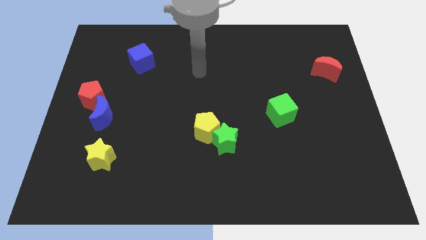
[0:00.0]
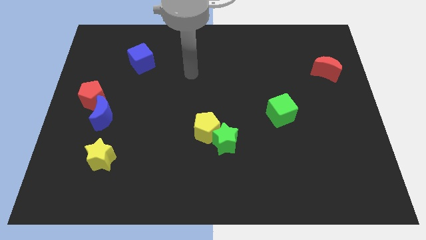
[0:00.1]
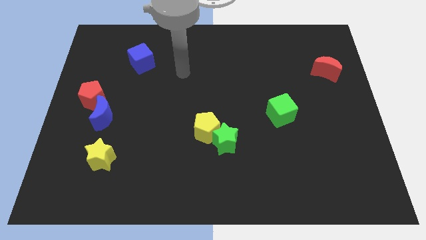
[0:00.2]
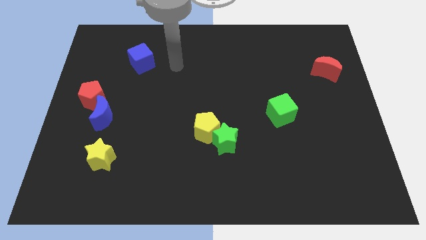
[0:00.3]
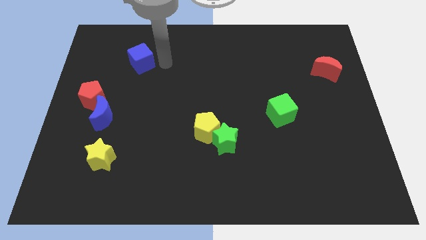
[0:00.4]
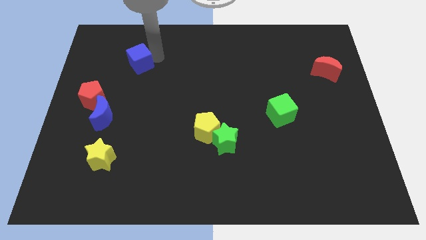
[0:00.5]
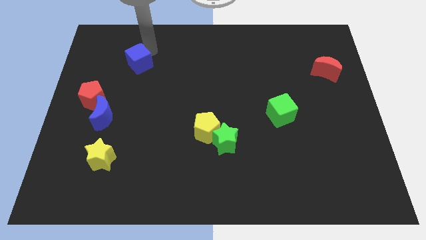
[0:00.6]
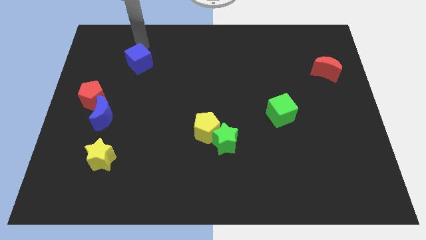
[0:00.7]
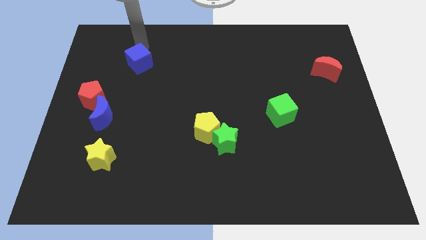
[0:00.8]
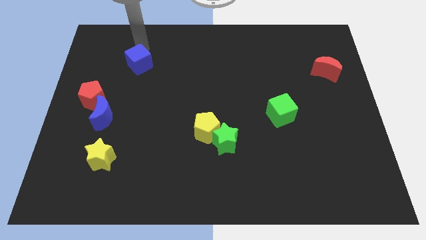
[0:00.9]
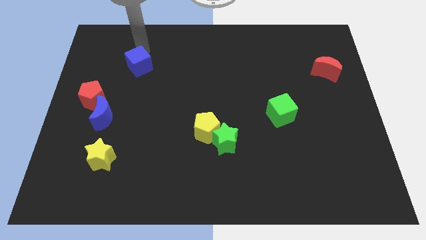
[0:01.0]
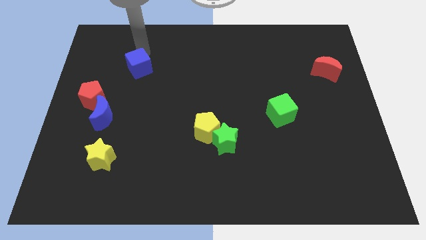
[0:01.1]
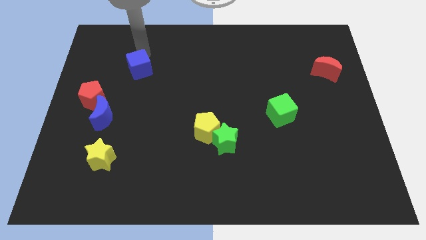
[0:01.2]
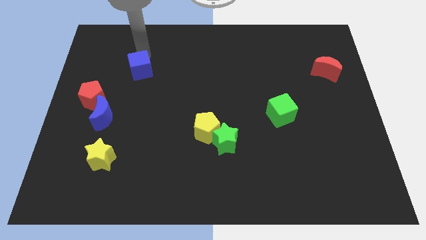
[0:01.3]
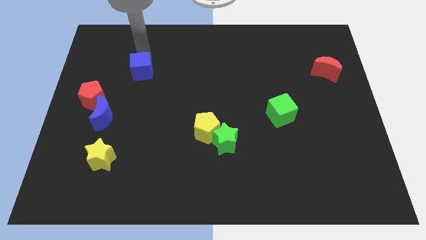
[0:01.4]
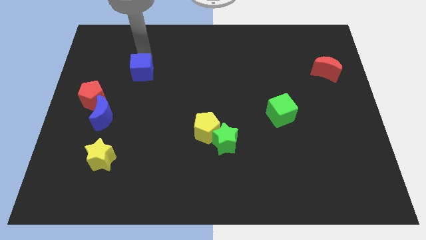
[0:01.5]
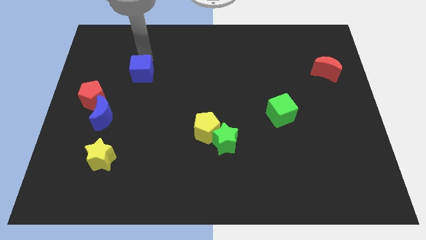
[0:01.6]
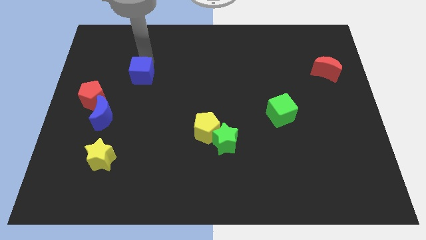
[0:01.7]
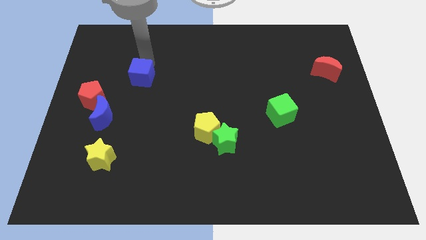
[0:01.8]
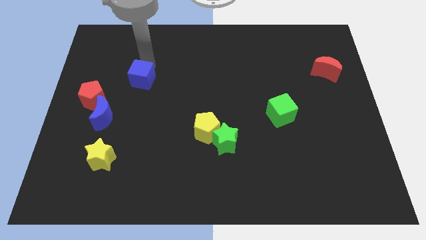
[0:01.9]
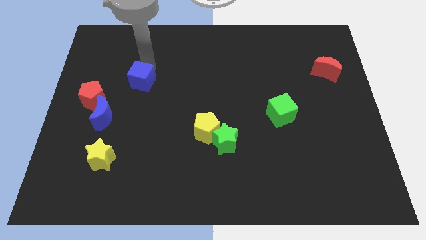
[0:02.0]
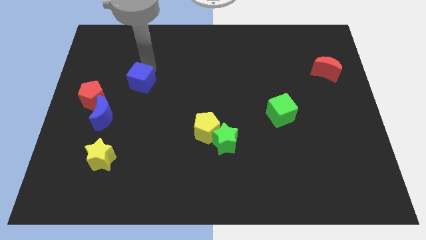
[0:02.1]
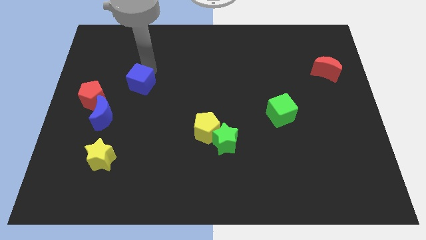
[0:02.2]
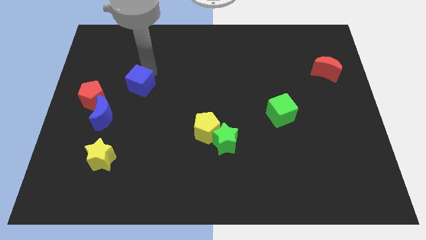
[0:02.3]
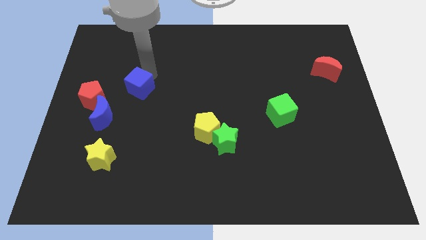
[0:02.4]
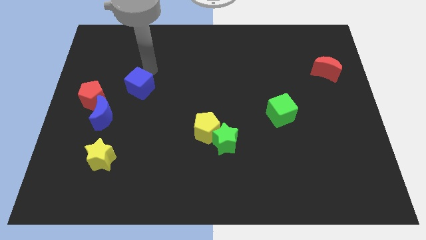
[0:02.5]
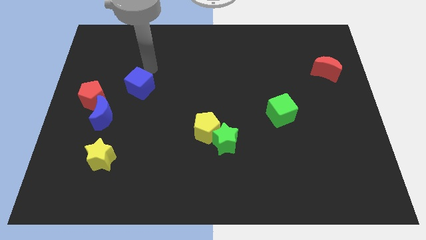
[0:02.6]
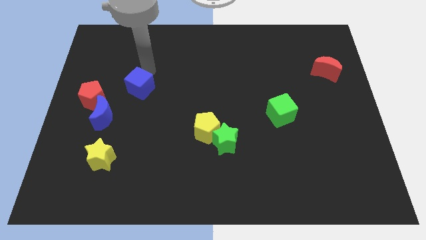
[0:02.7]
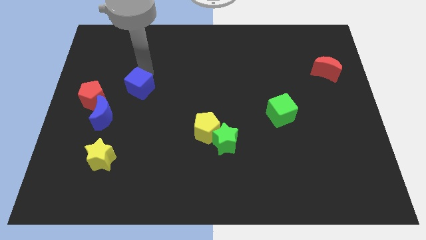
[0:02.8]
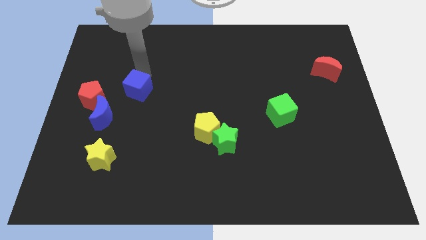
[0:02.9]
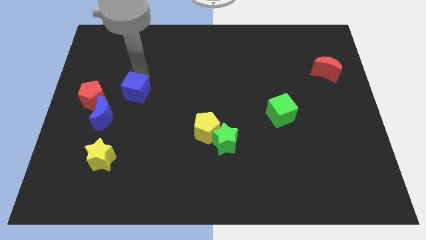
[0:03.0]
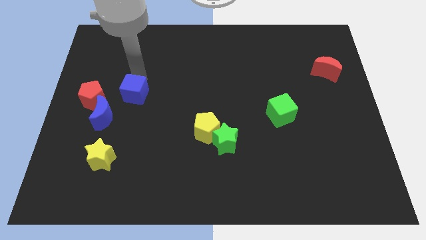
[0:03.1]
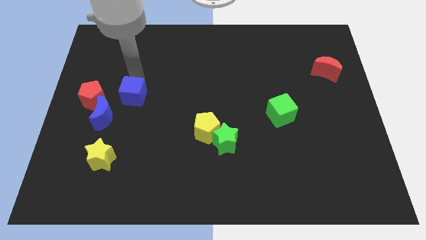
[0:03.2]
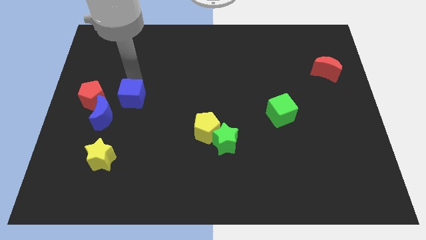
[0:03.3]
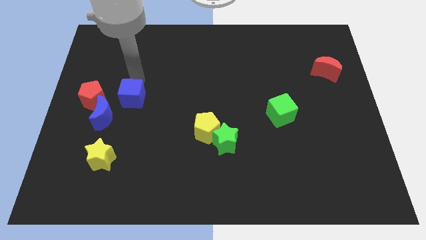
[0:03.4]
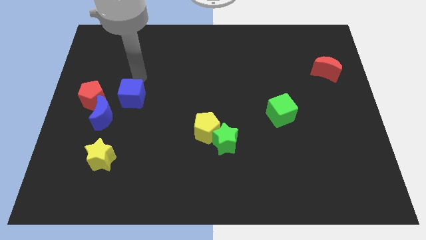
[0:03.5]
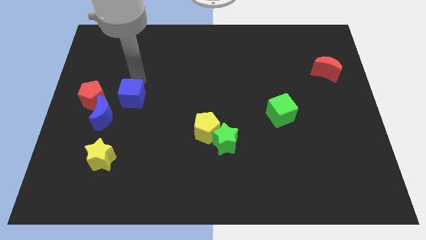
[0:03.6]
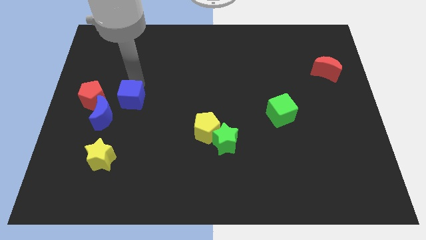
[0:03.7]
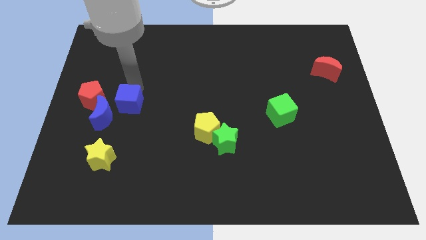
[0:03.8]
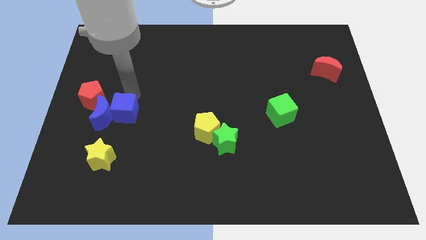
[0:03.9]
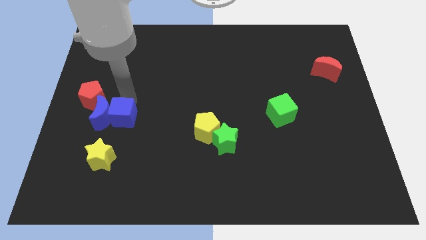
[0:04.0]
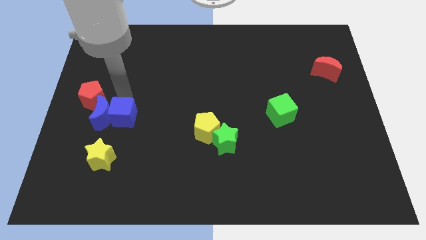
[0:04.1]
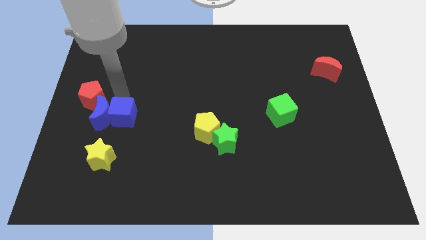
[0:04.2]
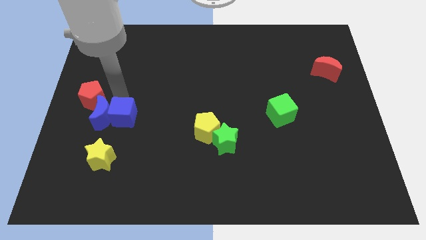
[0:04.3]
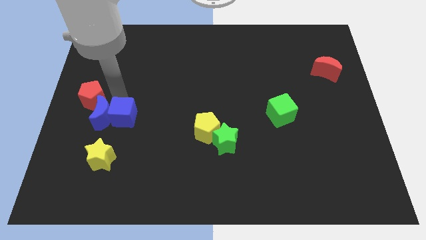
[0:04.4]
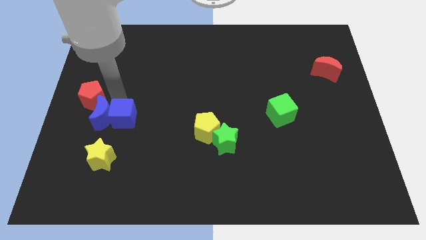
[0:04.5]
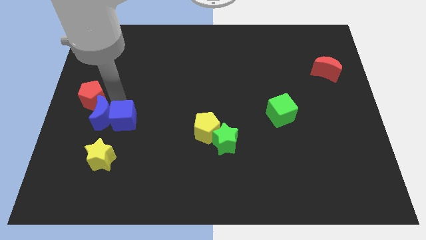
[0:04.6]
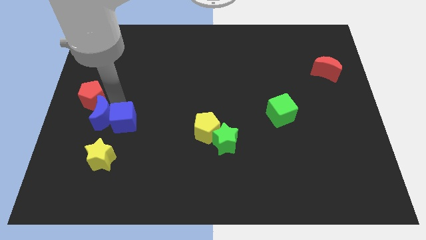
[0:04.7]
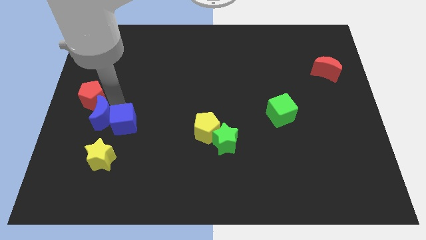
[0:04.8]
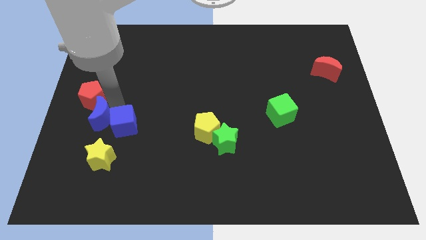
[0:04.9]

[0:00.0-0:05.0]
move the blue cube downwards

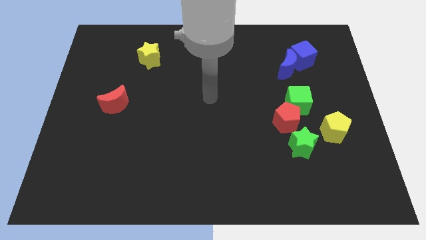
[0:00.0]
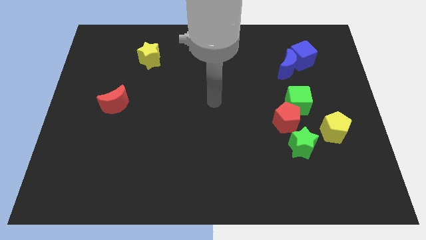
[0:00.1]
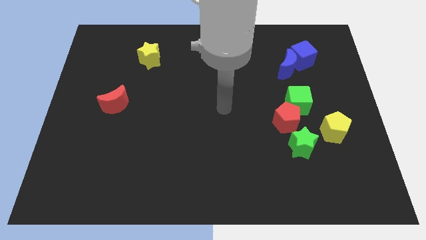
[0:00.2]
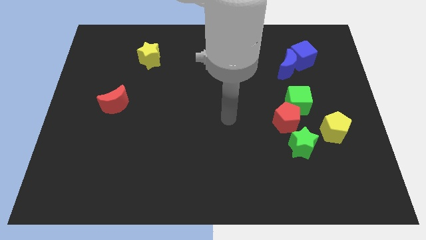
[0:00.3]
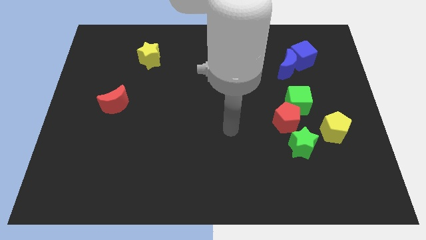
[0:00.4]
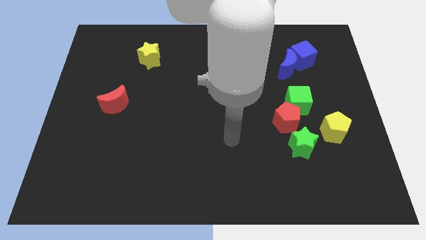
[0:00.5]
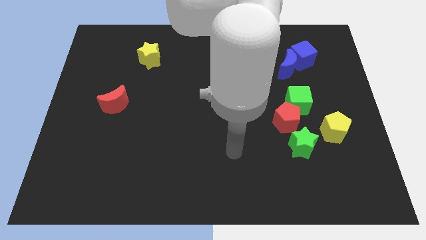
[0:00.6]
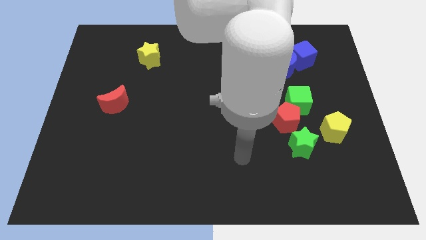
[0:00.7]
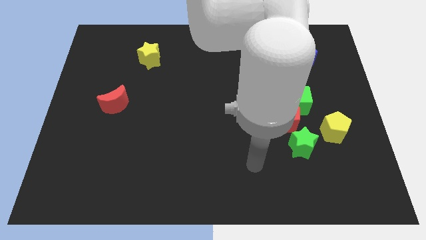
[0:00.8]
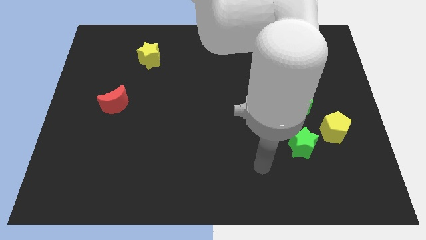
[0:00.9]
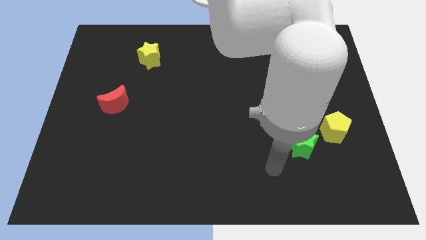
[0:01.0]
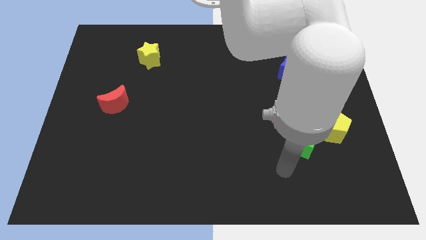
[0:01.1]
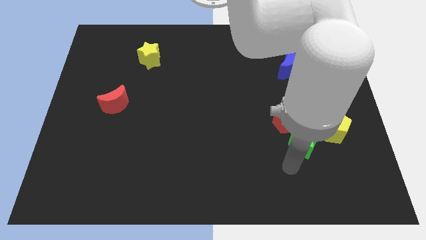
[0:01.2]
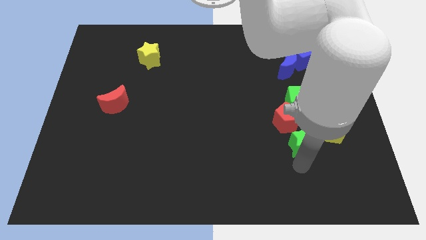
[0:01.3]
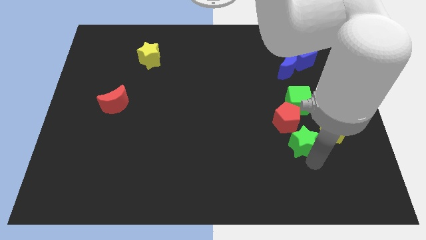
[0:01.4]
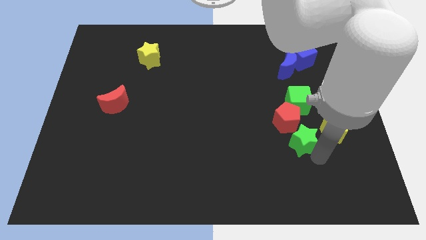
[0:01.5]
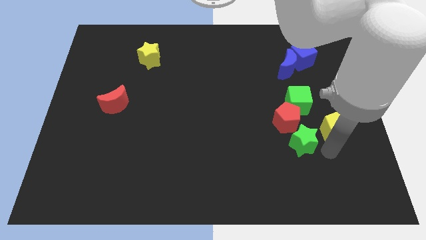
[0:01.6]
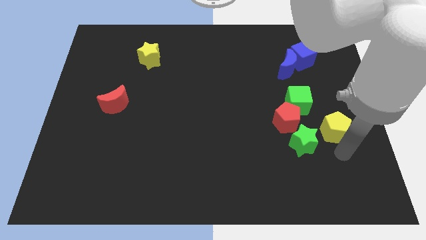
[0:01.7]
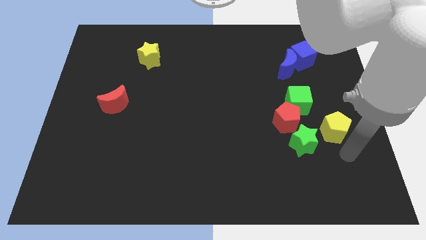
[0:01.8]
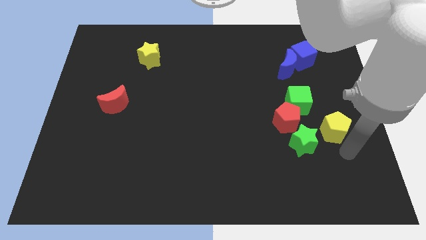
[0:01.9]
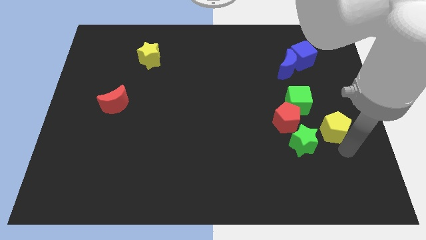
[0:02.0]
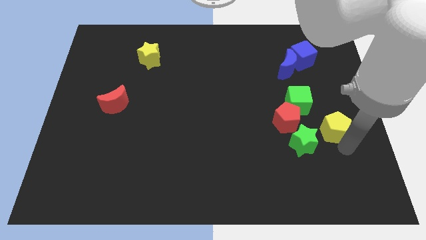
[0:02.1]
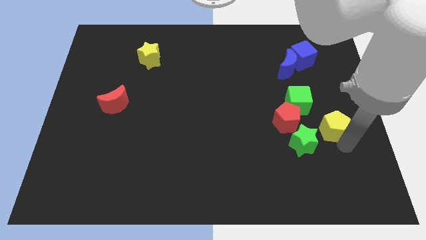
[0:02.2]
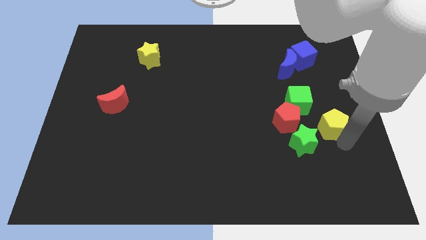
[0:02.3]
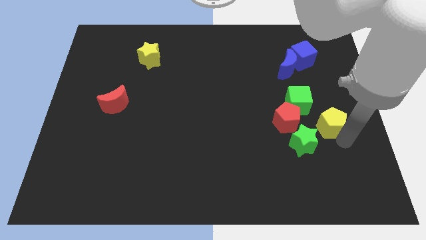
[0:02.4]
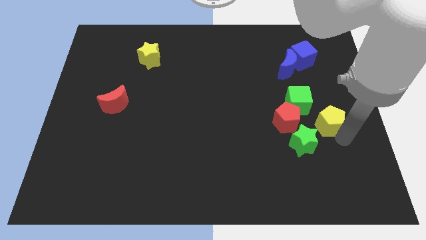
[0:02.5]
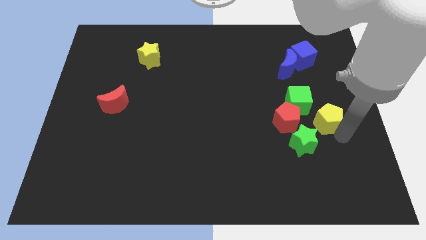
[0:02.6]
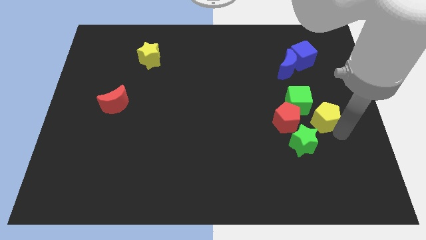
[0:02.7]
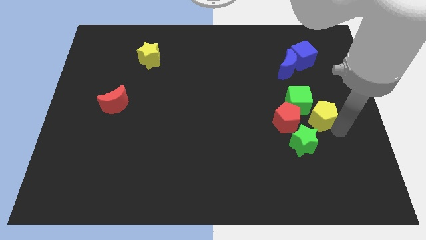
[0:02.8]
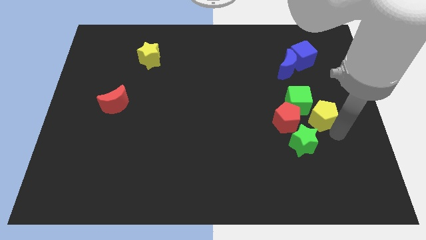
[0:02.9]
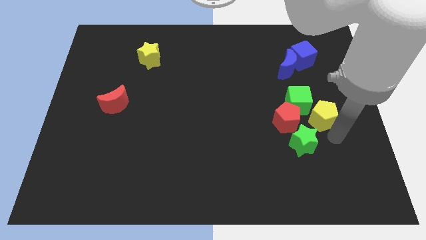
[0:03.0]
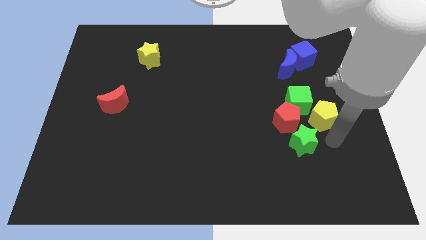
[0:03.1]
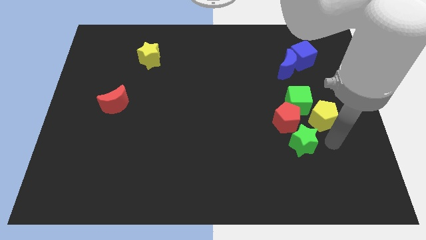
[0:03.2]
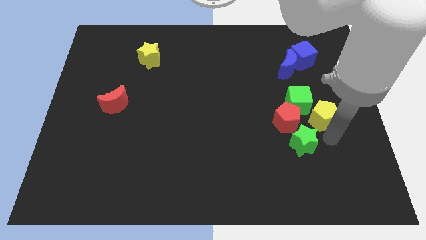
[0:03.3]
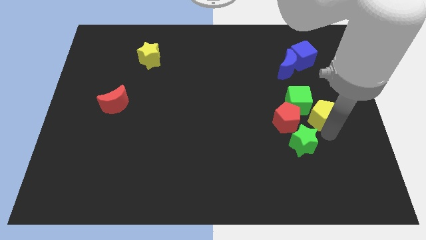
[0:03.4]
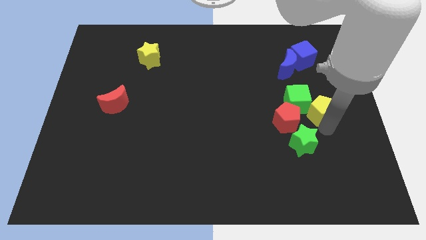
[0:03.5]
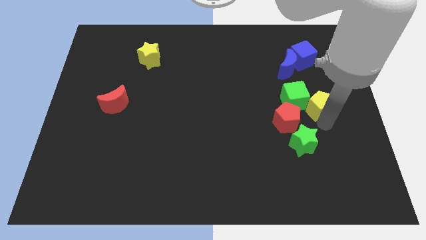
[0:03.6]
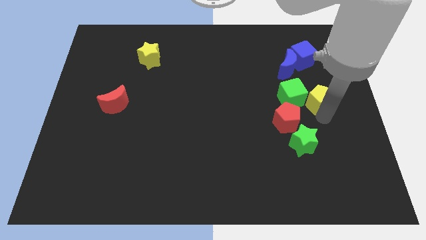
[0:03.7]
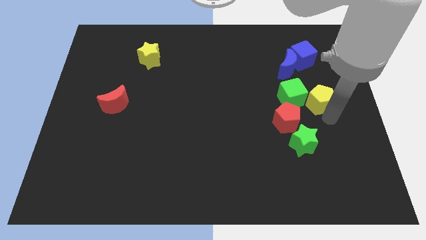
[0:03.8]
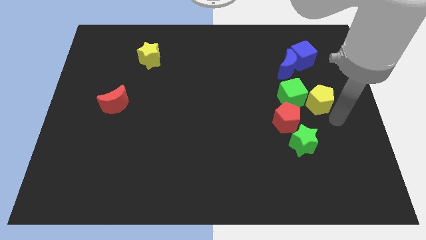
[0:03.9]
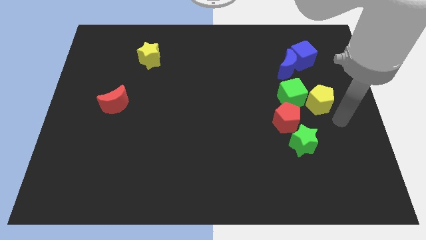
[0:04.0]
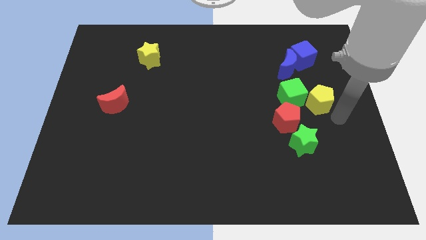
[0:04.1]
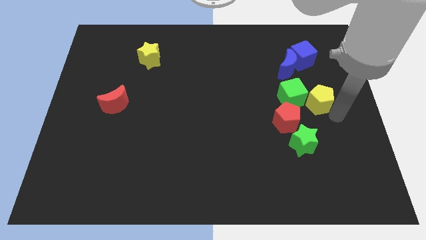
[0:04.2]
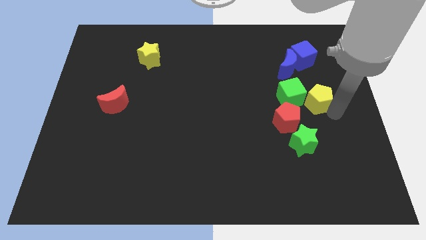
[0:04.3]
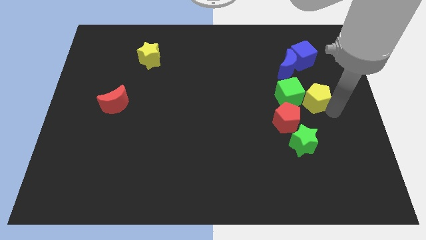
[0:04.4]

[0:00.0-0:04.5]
move the yellow pentagon a little up and to the left
